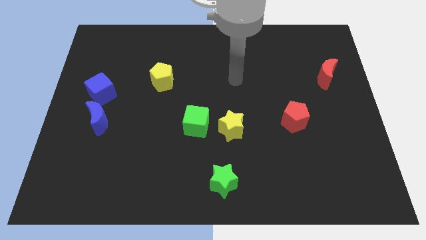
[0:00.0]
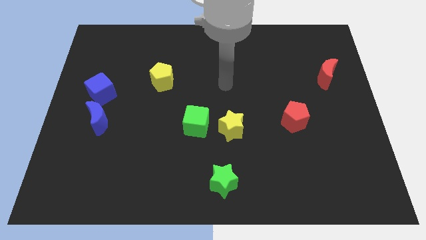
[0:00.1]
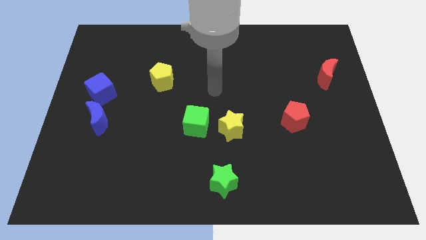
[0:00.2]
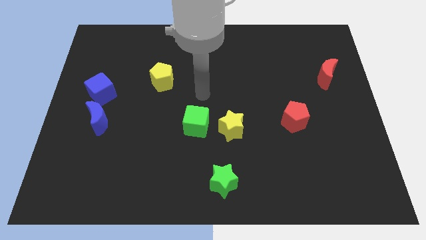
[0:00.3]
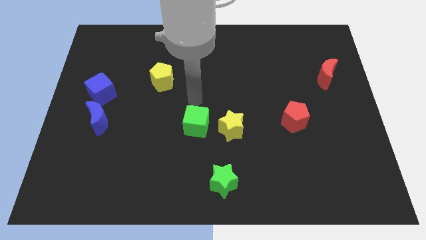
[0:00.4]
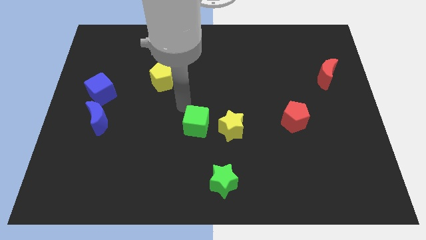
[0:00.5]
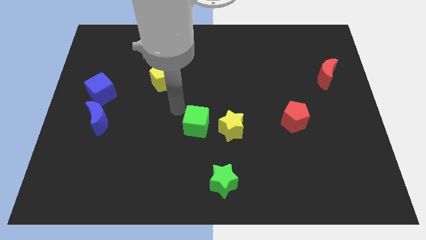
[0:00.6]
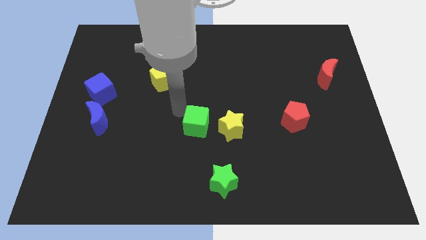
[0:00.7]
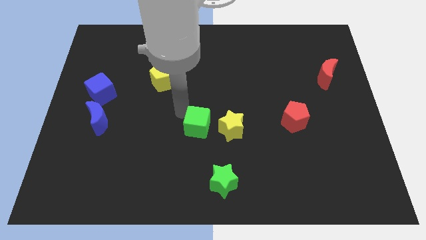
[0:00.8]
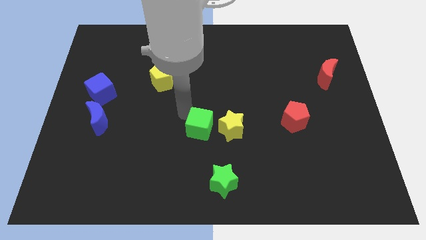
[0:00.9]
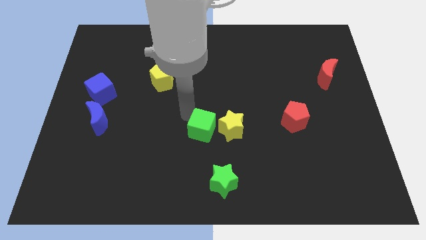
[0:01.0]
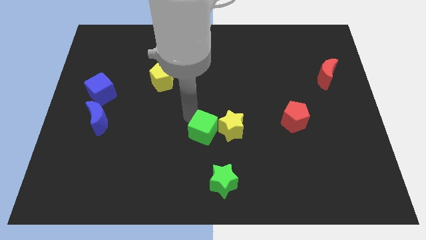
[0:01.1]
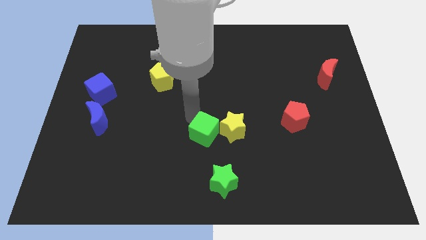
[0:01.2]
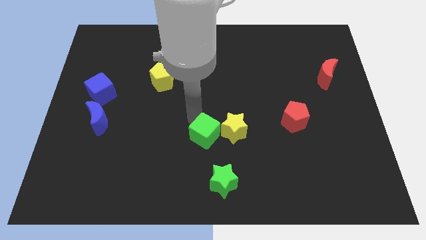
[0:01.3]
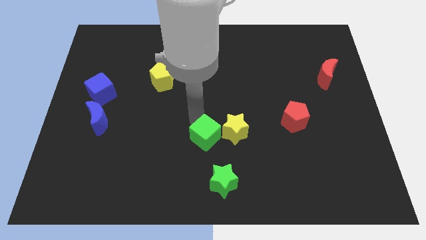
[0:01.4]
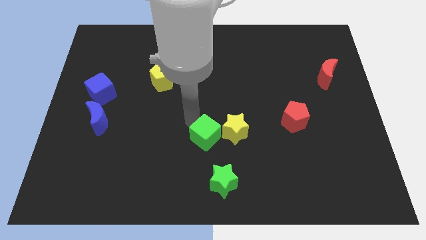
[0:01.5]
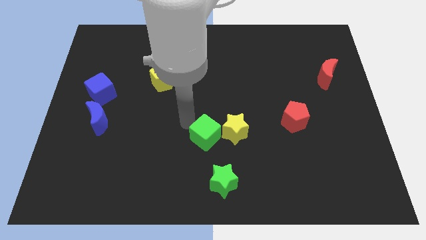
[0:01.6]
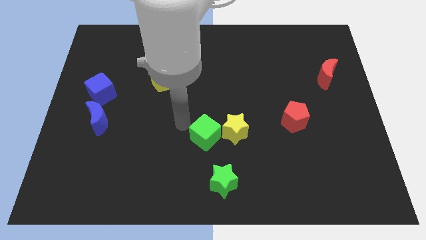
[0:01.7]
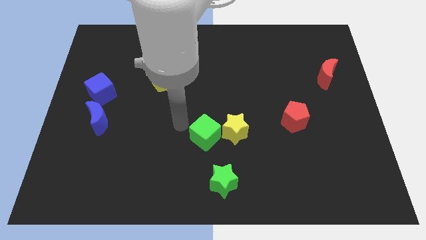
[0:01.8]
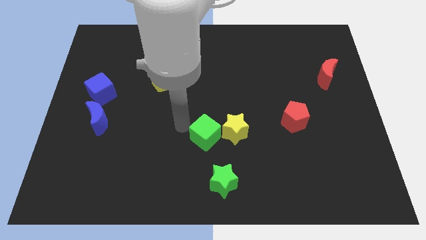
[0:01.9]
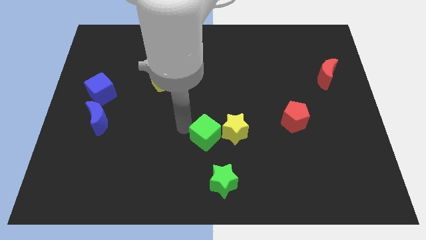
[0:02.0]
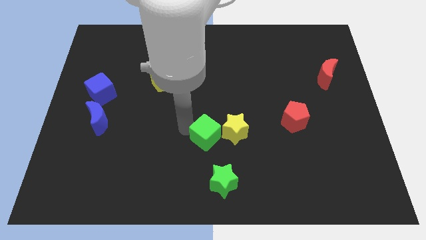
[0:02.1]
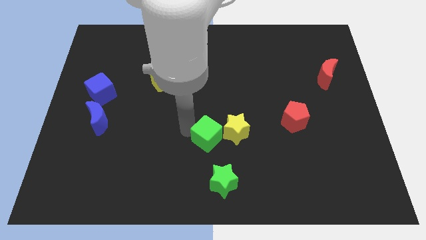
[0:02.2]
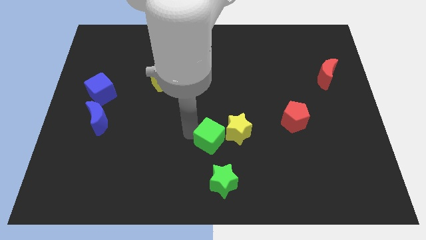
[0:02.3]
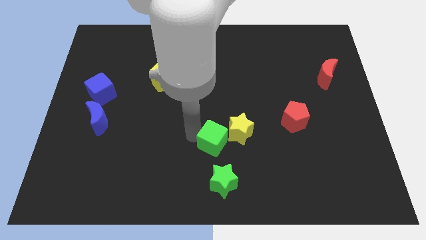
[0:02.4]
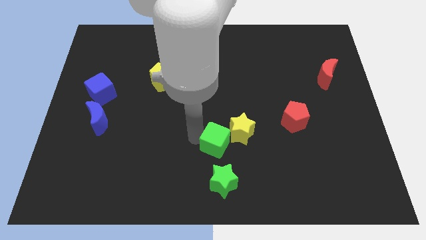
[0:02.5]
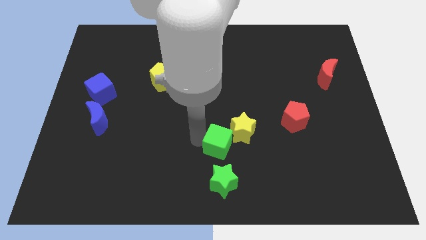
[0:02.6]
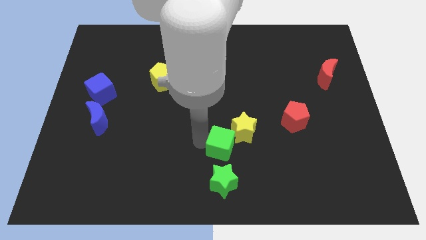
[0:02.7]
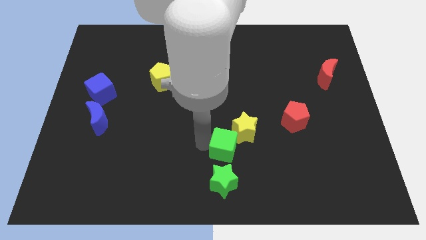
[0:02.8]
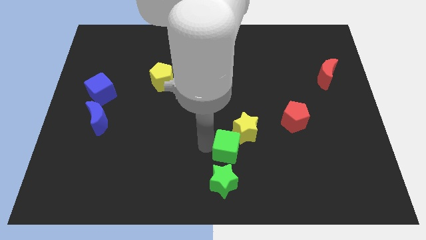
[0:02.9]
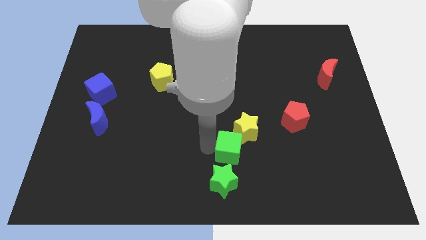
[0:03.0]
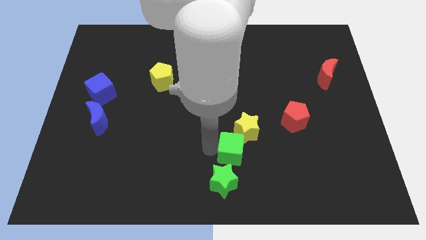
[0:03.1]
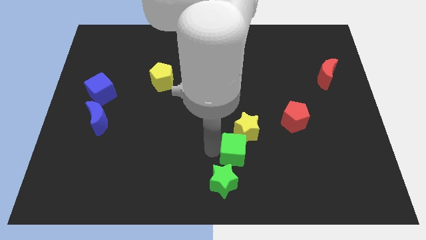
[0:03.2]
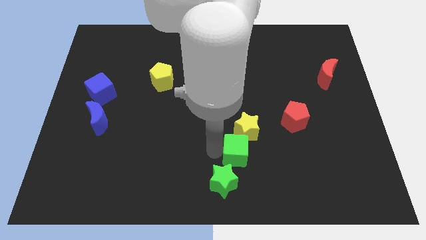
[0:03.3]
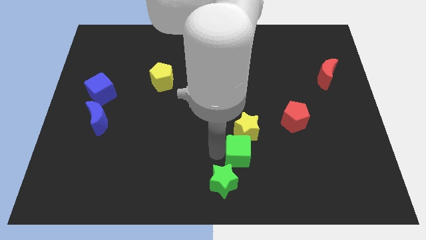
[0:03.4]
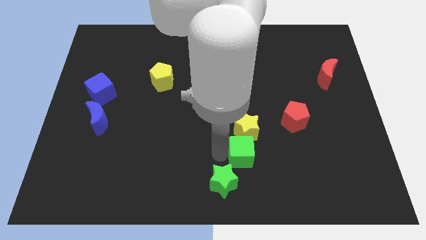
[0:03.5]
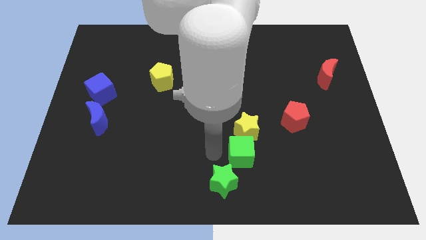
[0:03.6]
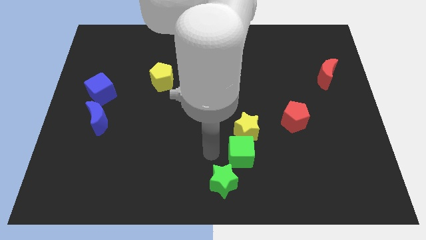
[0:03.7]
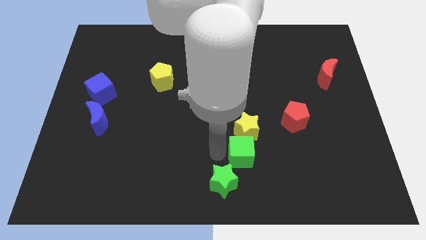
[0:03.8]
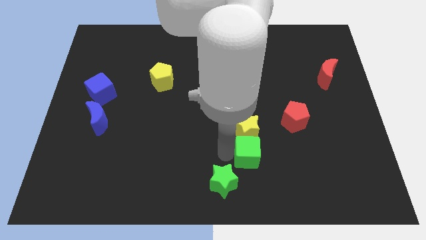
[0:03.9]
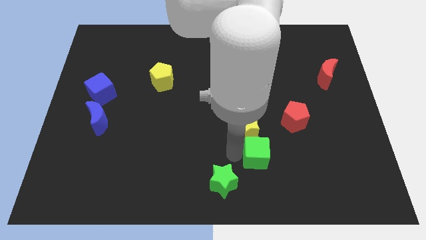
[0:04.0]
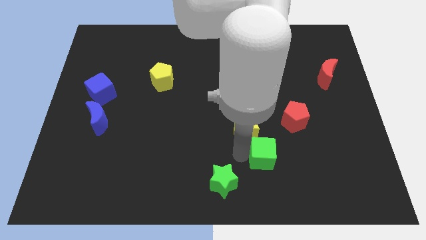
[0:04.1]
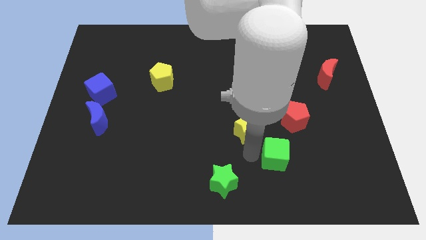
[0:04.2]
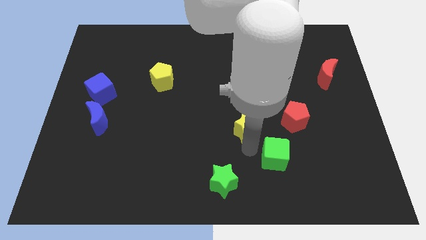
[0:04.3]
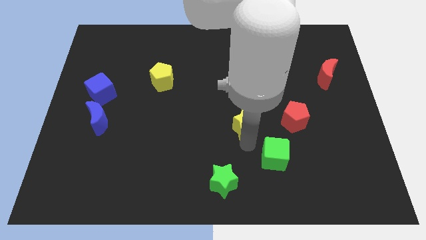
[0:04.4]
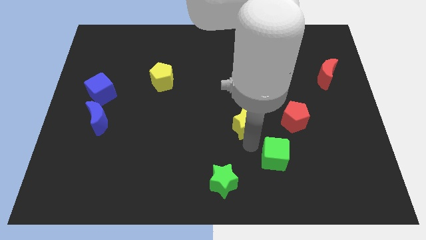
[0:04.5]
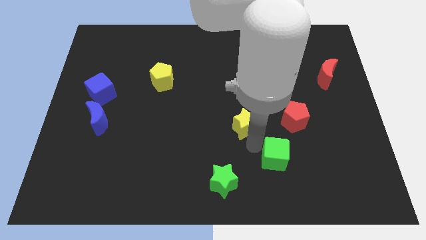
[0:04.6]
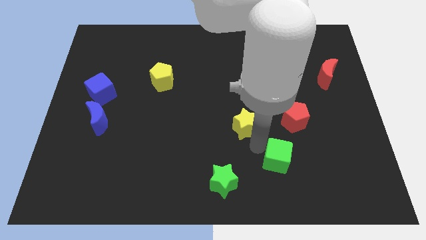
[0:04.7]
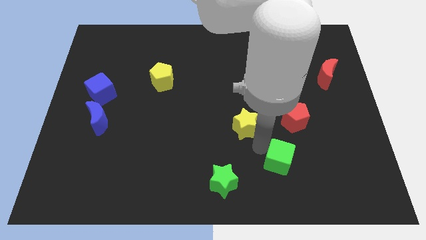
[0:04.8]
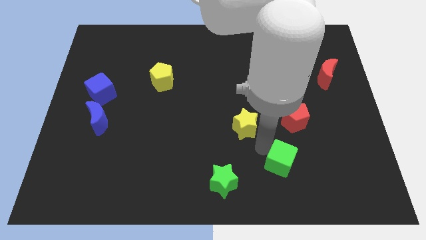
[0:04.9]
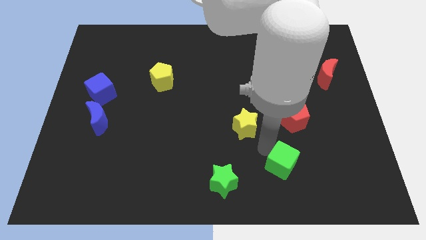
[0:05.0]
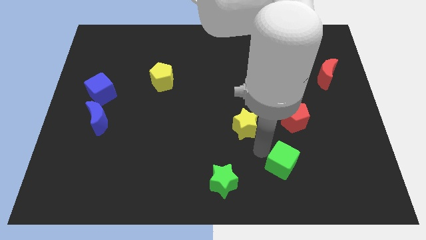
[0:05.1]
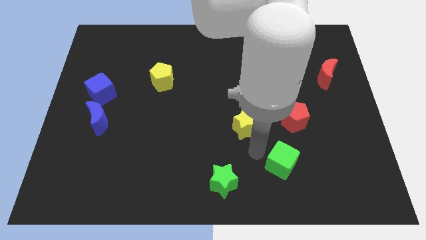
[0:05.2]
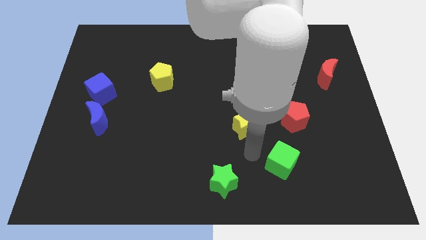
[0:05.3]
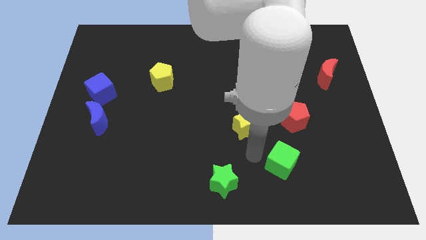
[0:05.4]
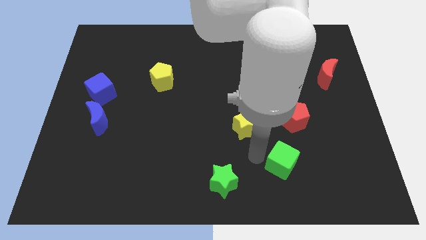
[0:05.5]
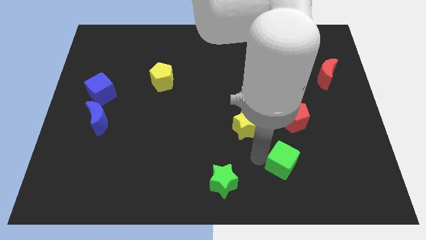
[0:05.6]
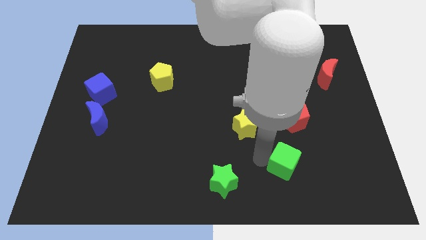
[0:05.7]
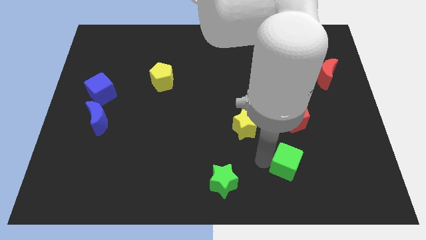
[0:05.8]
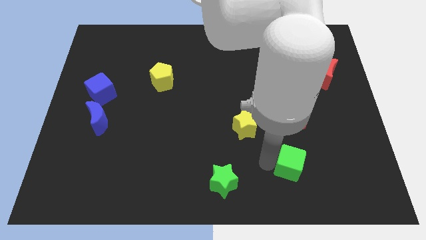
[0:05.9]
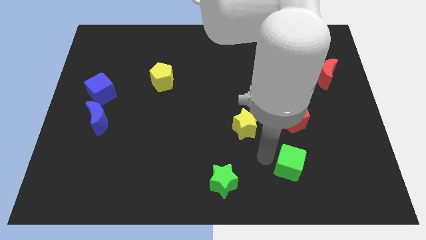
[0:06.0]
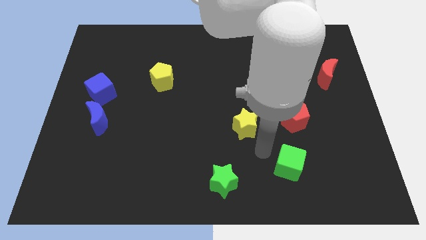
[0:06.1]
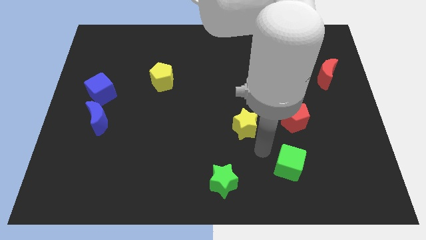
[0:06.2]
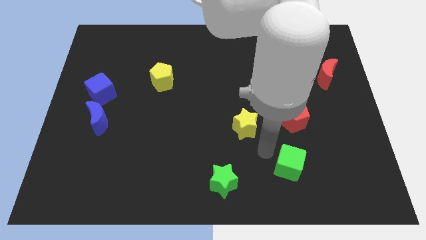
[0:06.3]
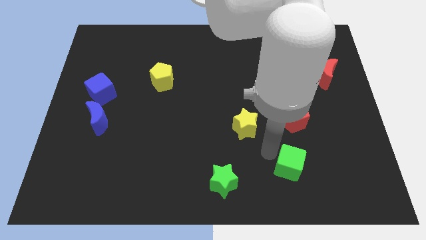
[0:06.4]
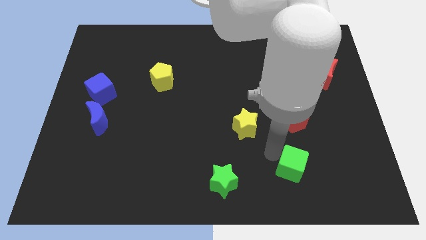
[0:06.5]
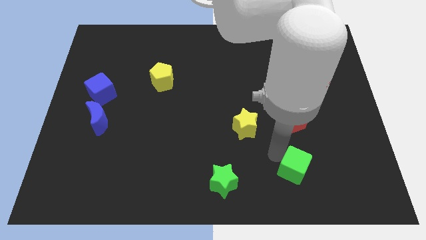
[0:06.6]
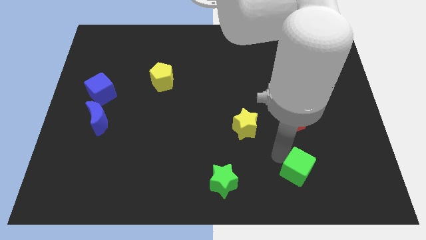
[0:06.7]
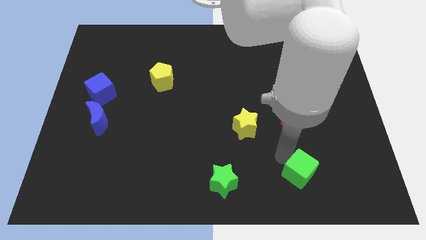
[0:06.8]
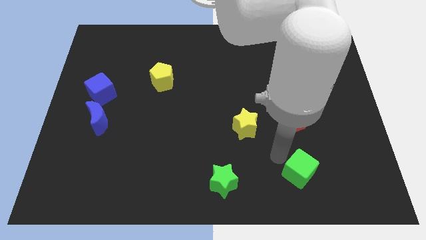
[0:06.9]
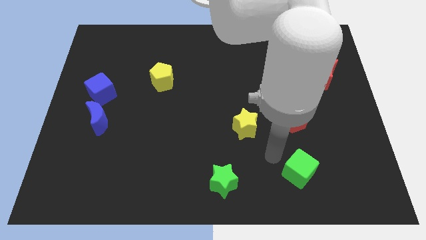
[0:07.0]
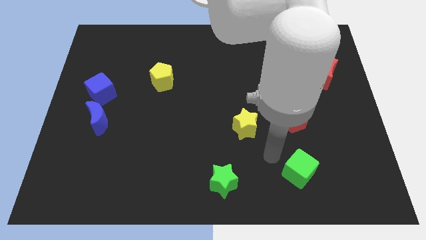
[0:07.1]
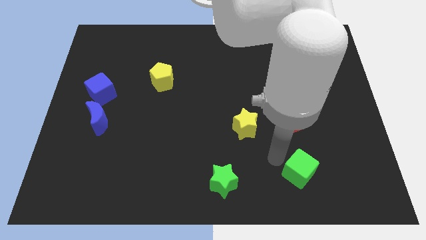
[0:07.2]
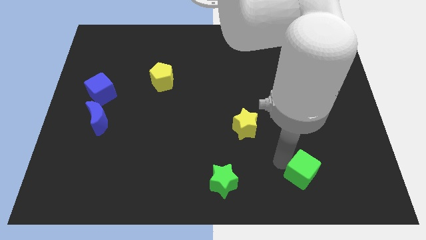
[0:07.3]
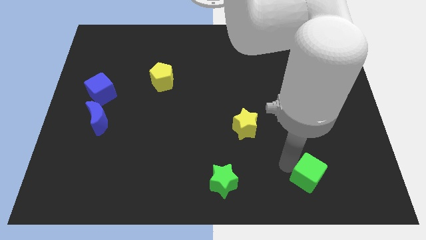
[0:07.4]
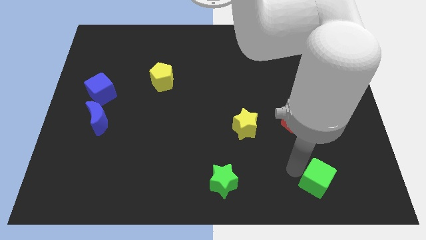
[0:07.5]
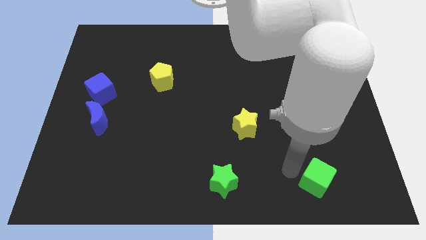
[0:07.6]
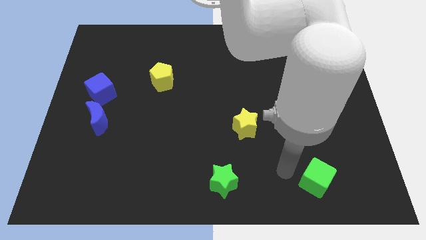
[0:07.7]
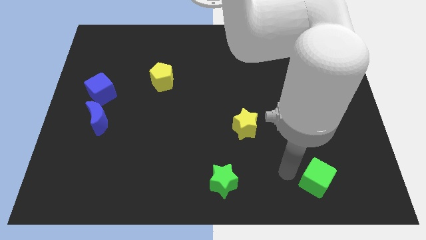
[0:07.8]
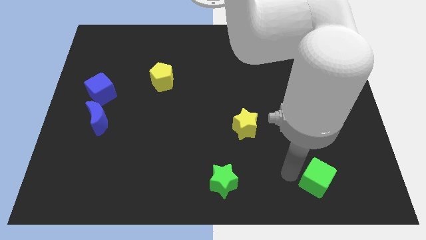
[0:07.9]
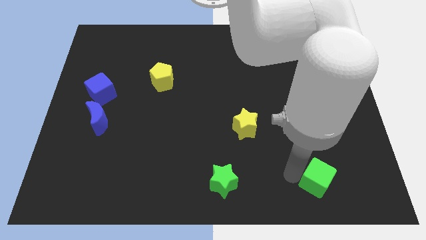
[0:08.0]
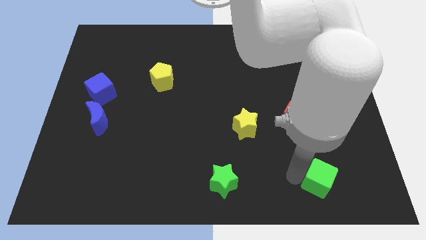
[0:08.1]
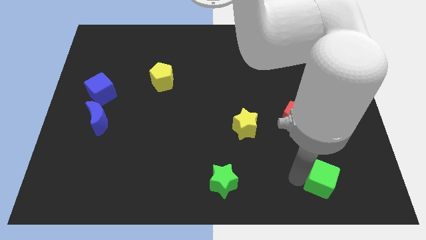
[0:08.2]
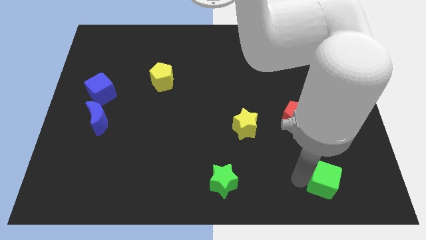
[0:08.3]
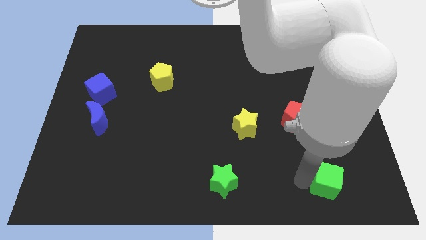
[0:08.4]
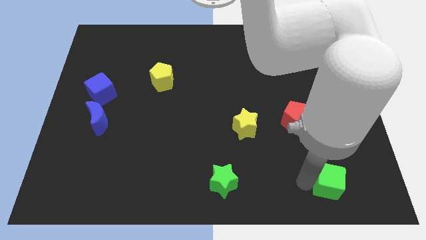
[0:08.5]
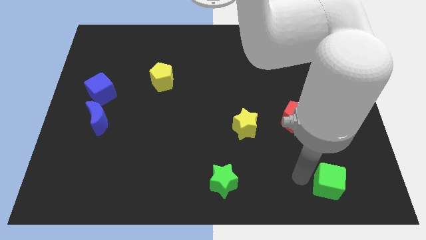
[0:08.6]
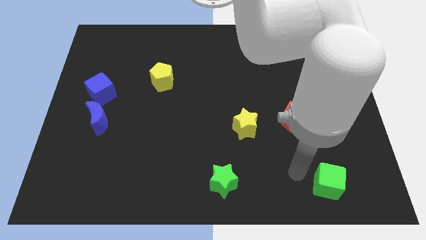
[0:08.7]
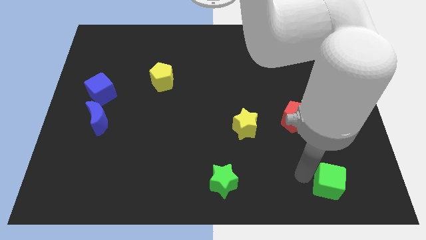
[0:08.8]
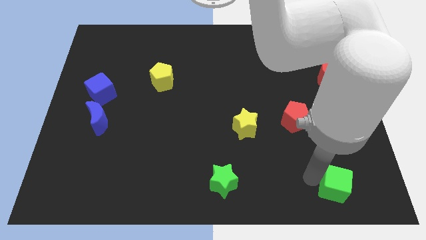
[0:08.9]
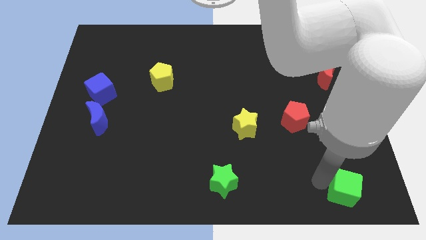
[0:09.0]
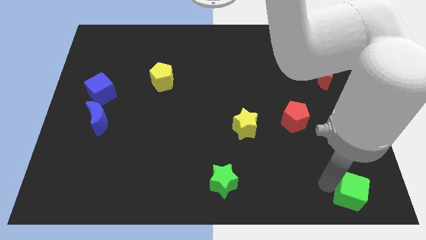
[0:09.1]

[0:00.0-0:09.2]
slide the green cube to the bottom right corner
